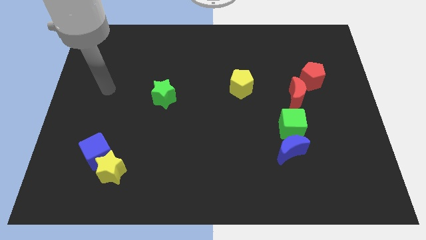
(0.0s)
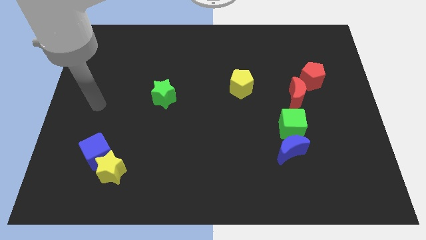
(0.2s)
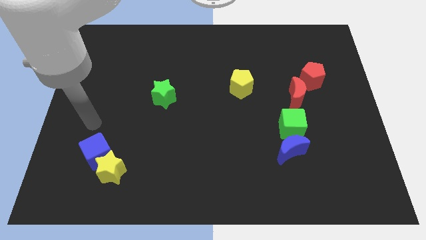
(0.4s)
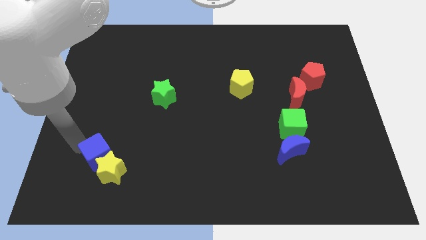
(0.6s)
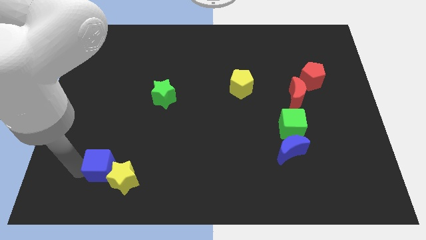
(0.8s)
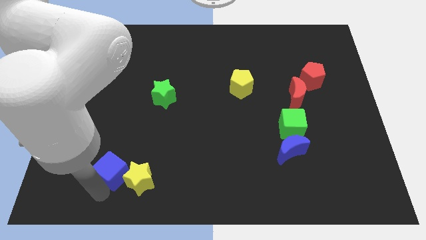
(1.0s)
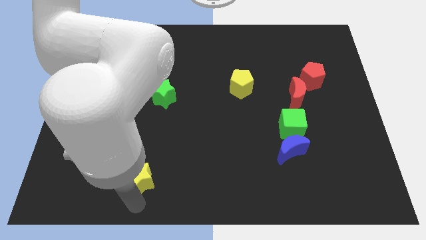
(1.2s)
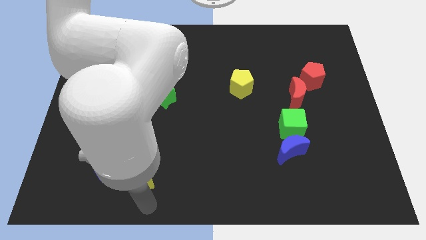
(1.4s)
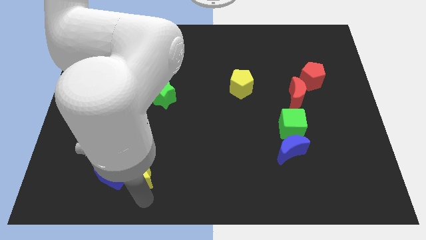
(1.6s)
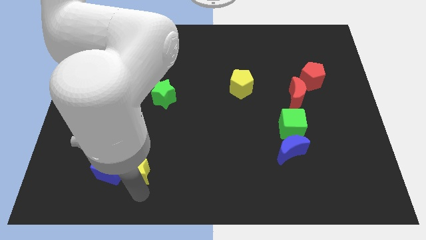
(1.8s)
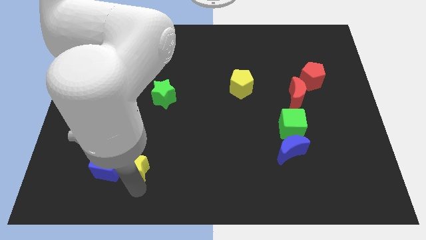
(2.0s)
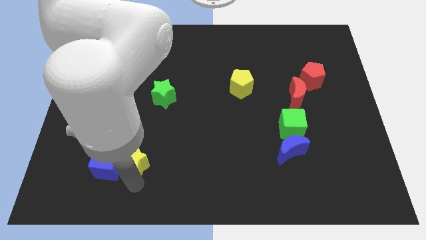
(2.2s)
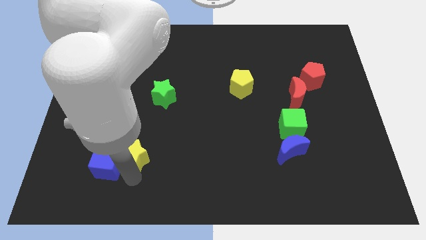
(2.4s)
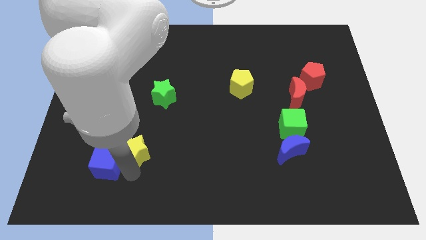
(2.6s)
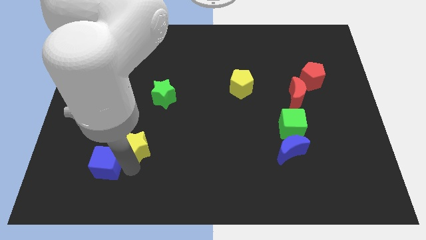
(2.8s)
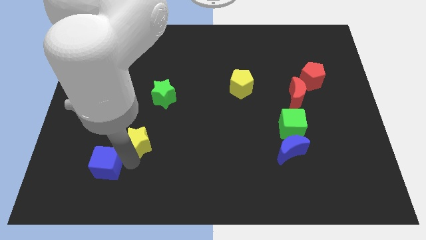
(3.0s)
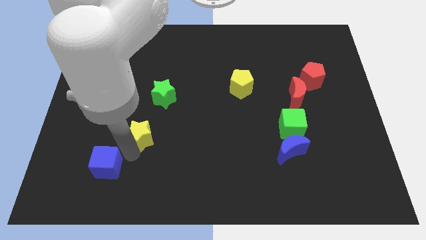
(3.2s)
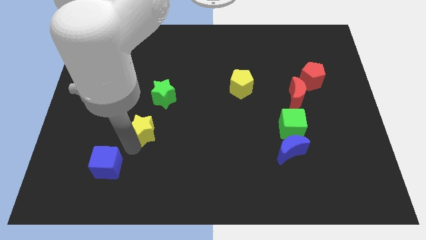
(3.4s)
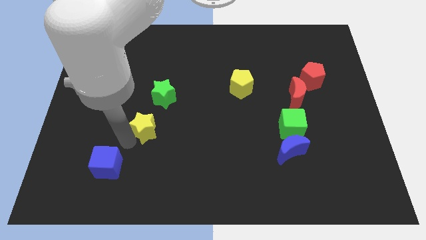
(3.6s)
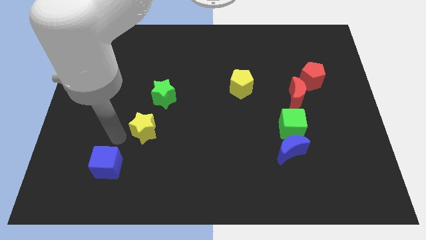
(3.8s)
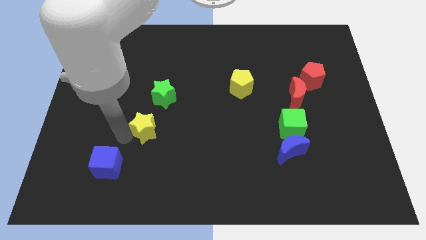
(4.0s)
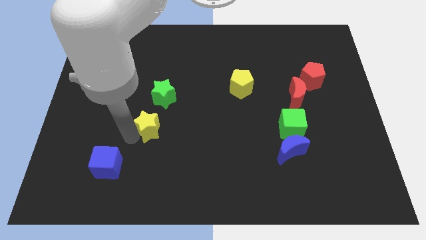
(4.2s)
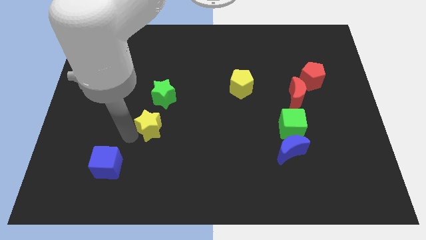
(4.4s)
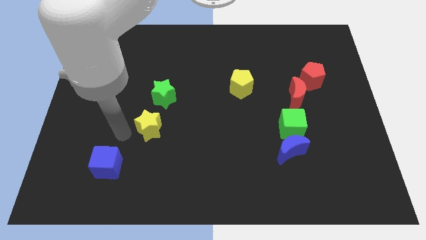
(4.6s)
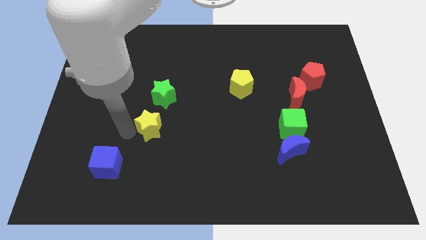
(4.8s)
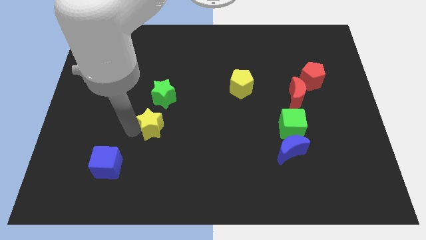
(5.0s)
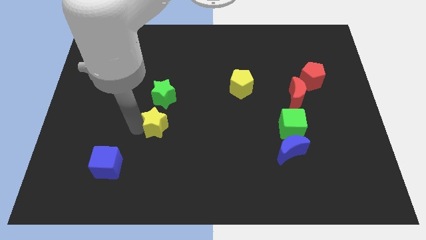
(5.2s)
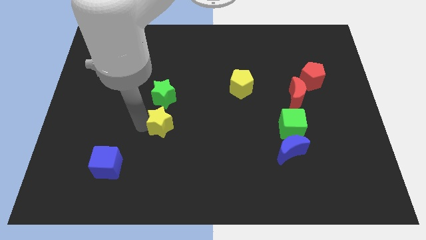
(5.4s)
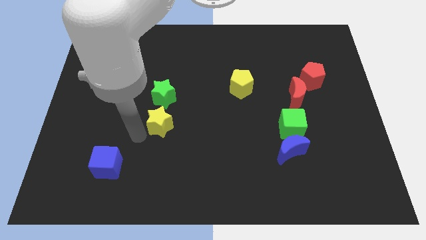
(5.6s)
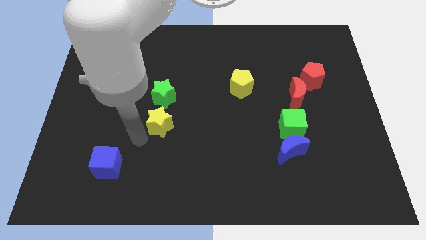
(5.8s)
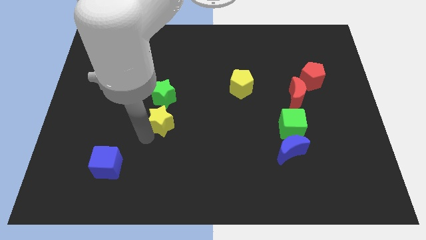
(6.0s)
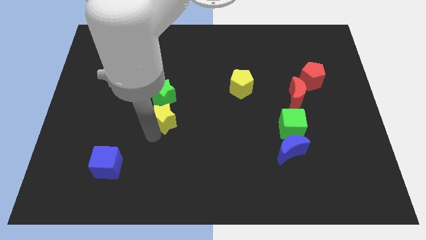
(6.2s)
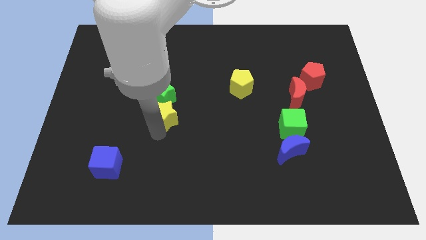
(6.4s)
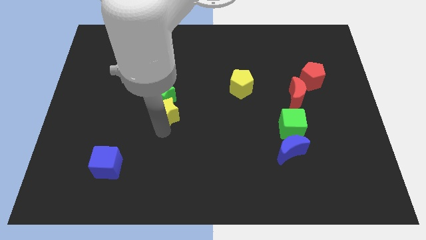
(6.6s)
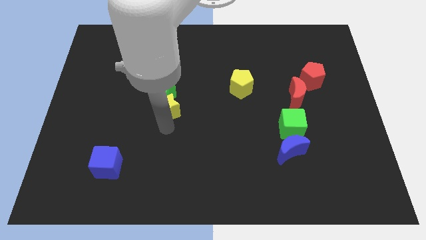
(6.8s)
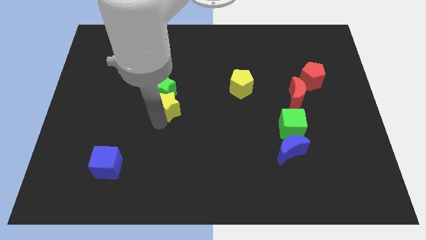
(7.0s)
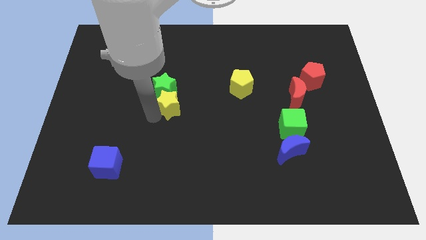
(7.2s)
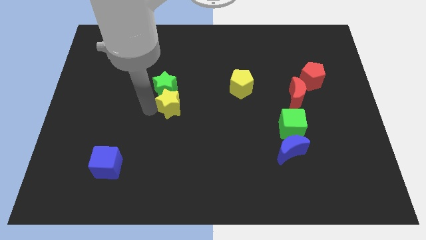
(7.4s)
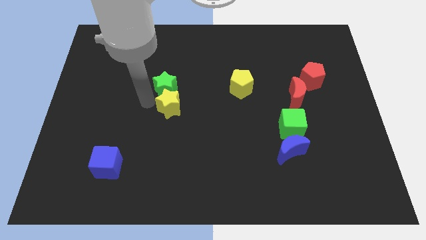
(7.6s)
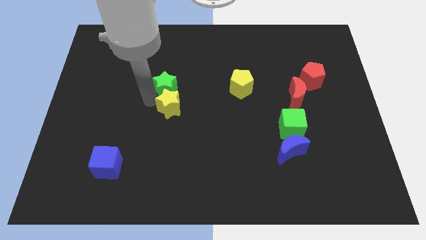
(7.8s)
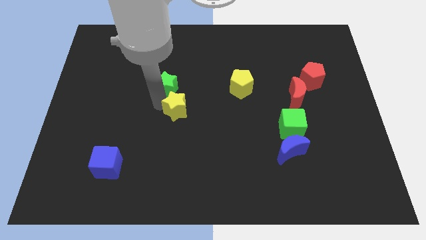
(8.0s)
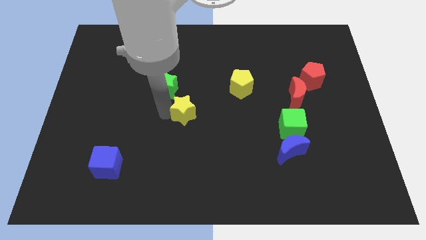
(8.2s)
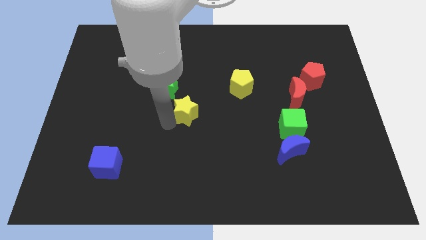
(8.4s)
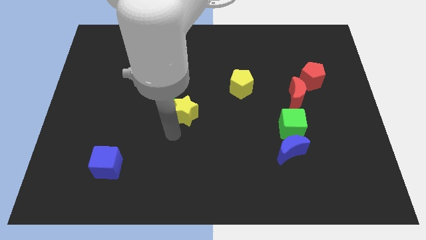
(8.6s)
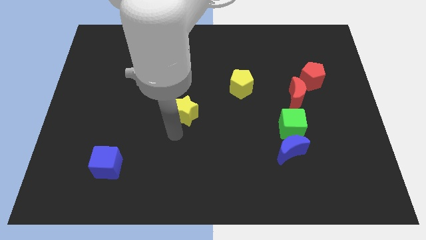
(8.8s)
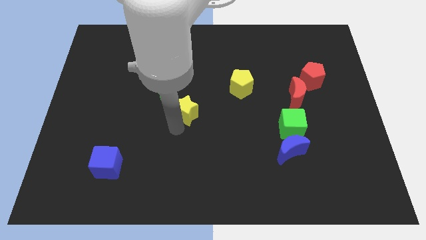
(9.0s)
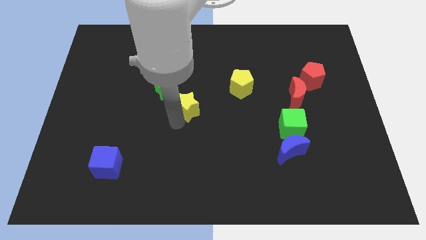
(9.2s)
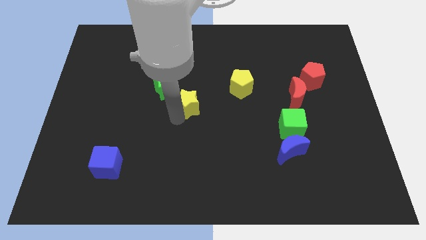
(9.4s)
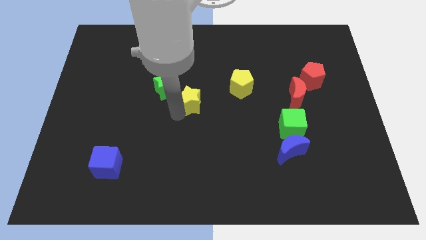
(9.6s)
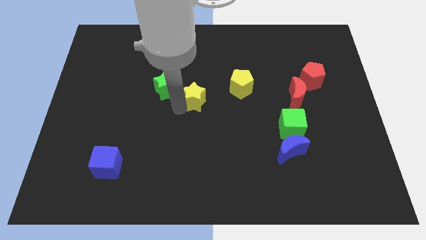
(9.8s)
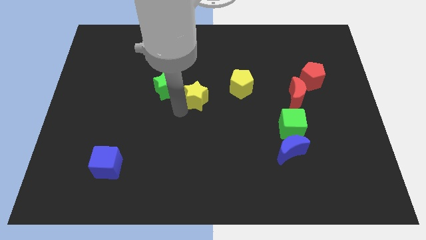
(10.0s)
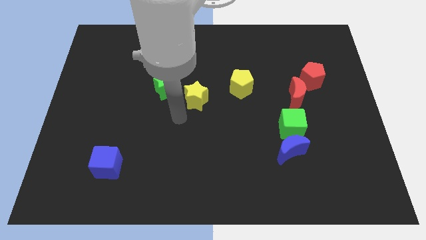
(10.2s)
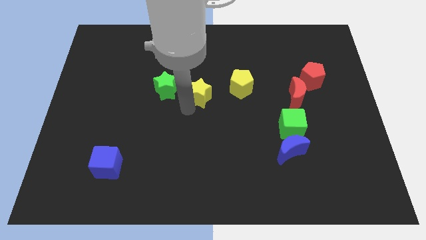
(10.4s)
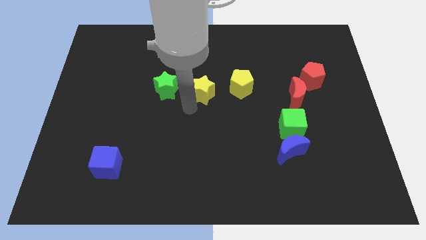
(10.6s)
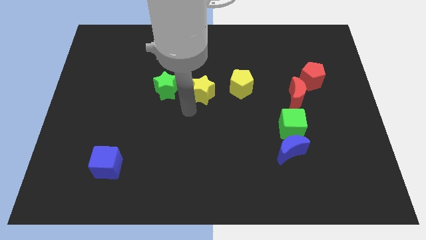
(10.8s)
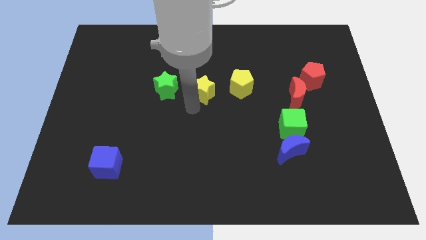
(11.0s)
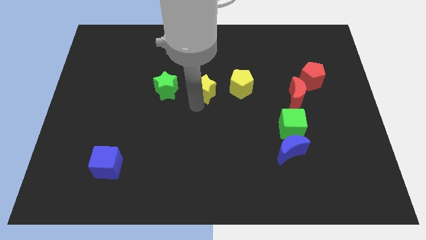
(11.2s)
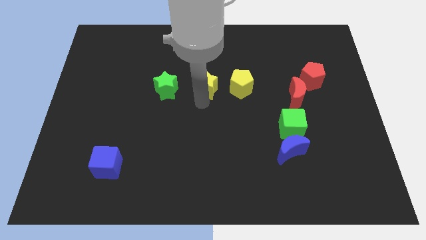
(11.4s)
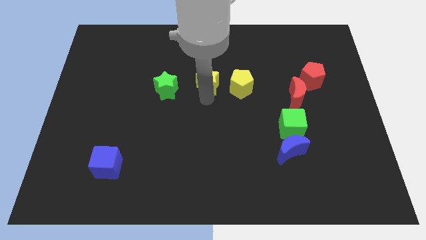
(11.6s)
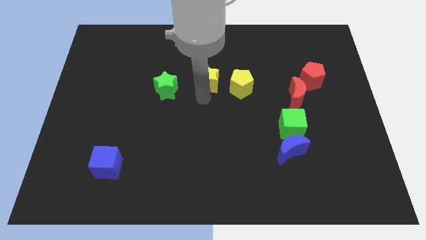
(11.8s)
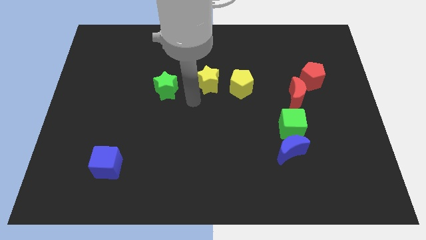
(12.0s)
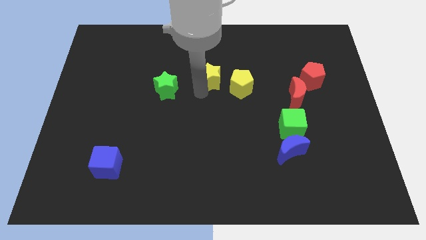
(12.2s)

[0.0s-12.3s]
put the yellow star to the top left side of the yellow pentagon

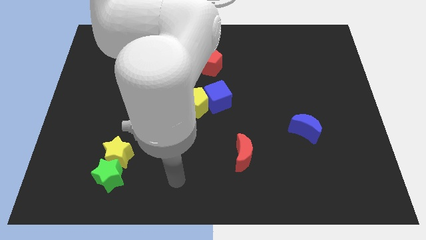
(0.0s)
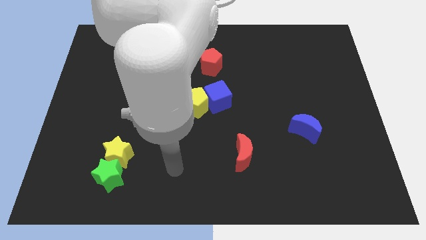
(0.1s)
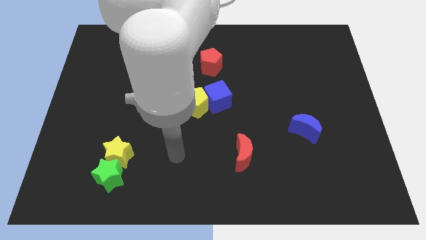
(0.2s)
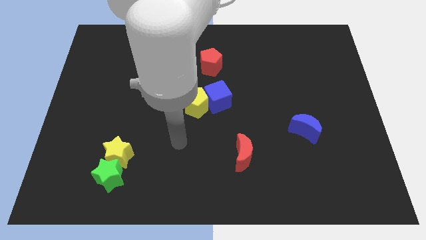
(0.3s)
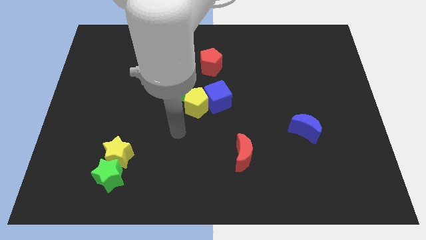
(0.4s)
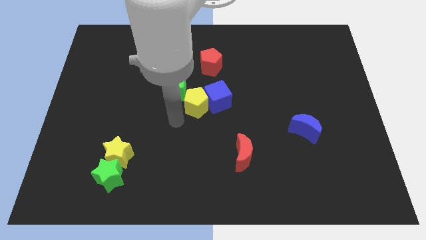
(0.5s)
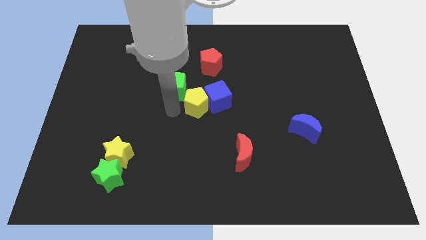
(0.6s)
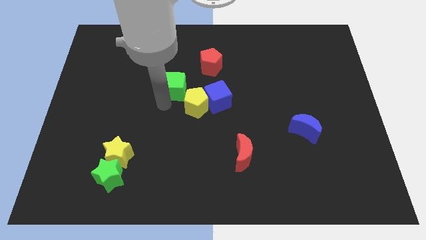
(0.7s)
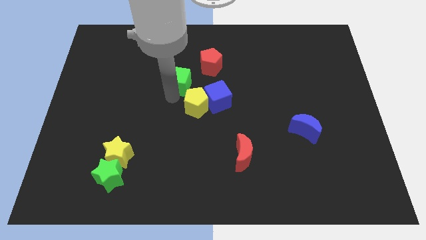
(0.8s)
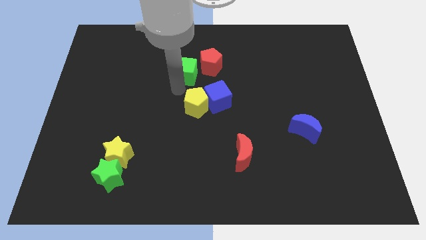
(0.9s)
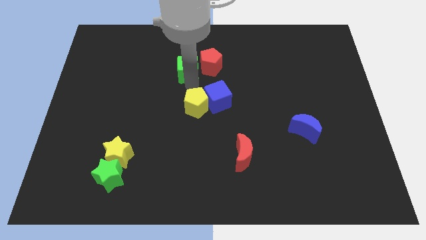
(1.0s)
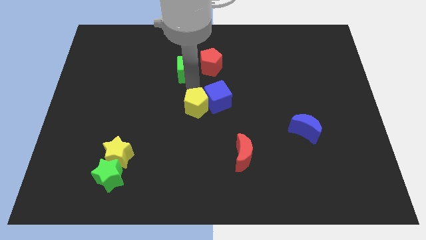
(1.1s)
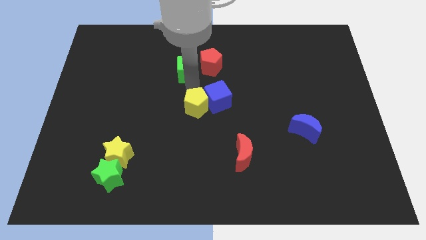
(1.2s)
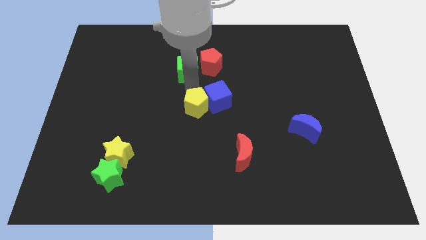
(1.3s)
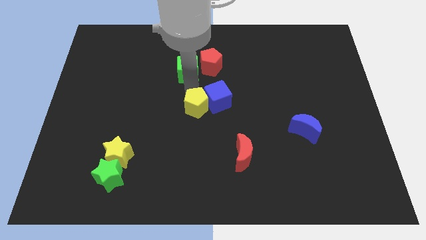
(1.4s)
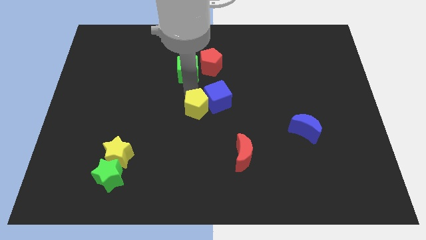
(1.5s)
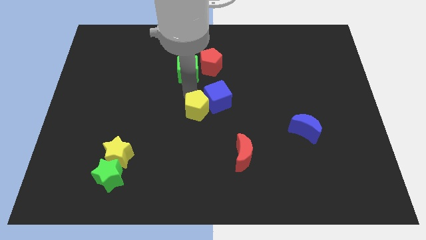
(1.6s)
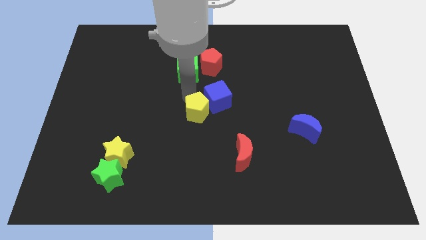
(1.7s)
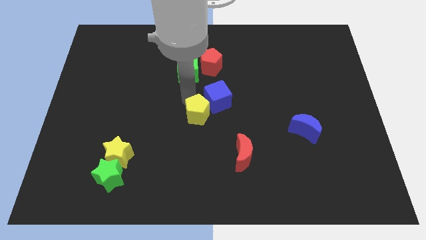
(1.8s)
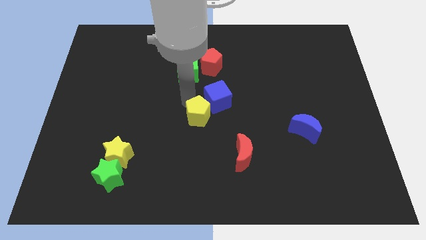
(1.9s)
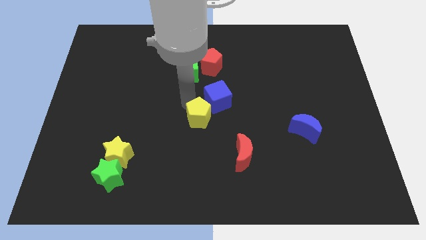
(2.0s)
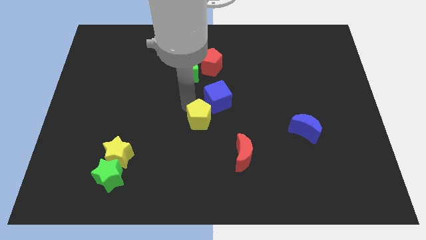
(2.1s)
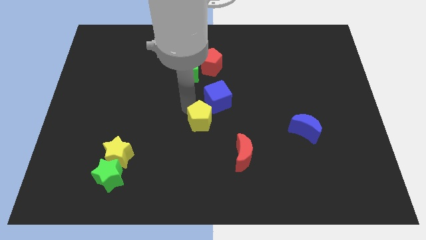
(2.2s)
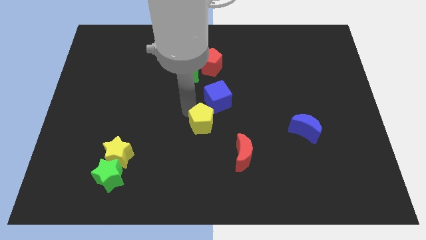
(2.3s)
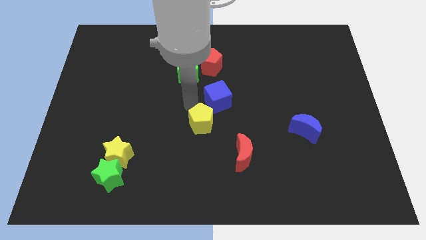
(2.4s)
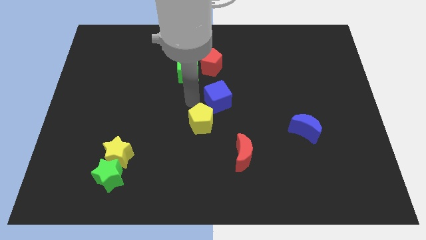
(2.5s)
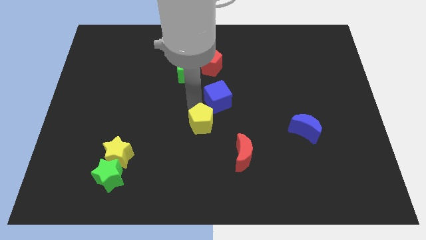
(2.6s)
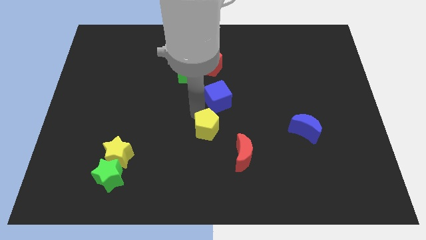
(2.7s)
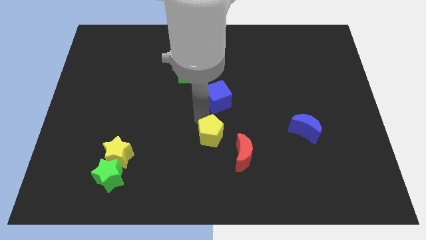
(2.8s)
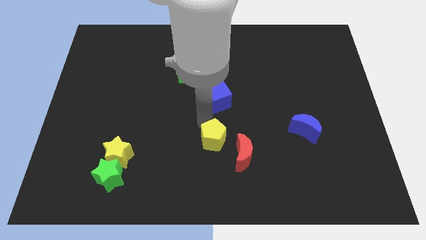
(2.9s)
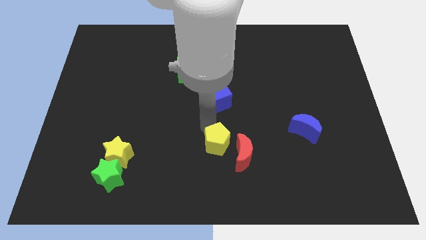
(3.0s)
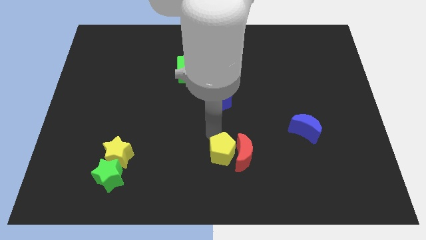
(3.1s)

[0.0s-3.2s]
move the yellow pentagon diagonally down and to the left of the red moon
